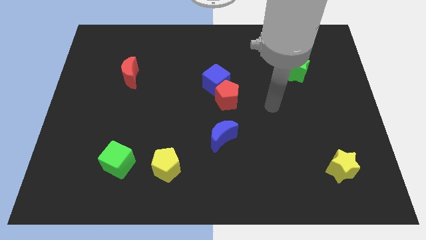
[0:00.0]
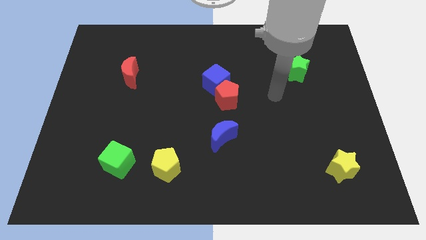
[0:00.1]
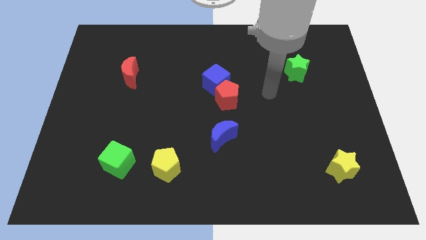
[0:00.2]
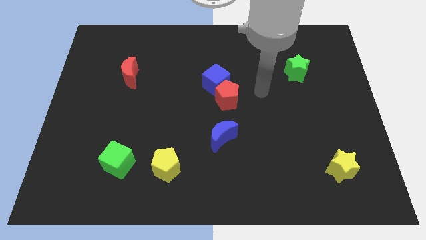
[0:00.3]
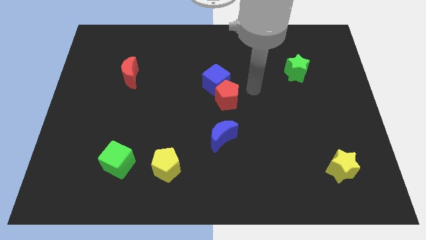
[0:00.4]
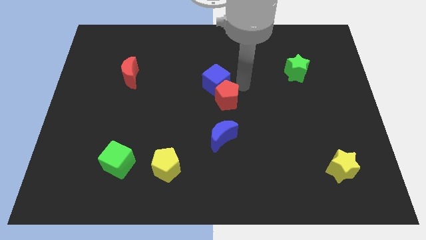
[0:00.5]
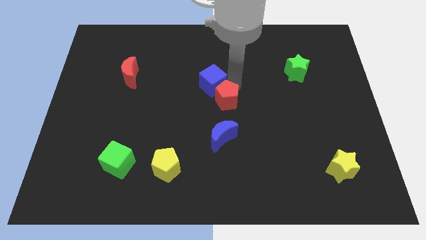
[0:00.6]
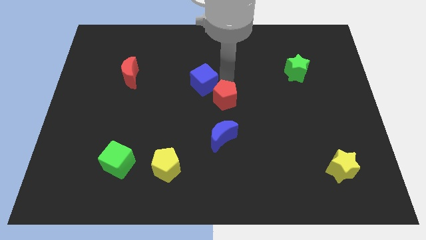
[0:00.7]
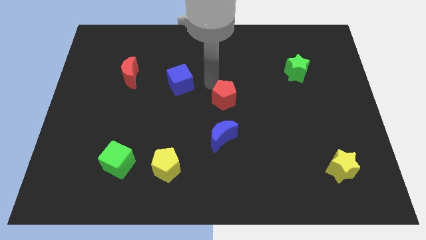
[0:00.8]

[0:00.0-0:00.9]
move the red pentagon away from the blue cube

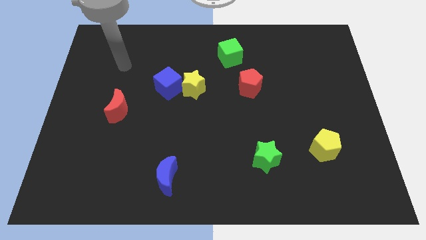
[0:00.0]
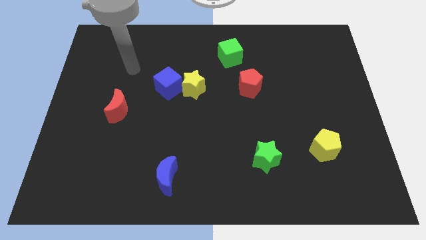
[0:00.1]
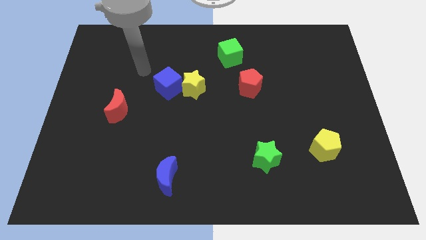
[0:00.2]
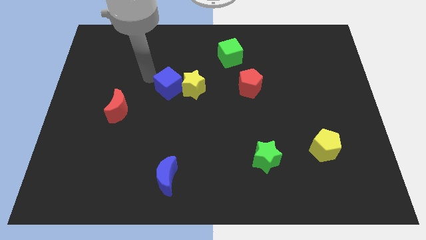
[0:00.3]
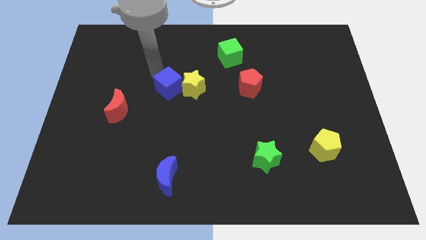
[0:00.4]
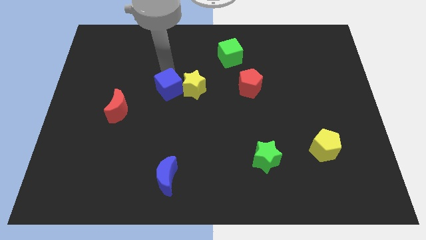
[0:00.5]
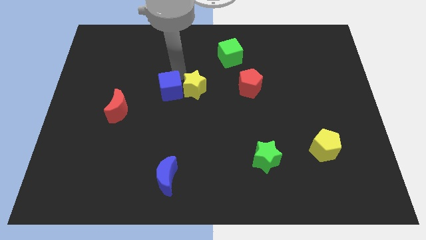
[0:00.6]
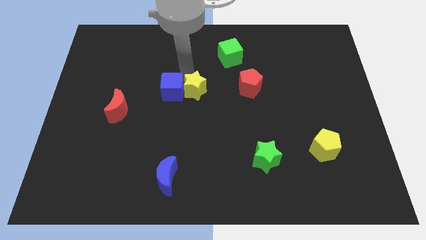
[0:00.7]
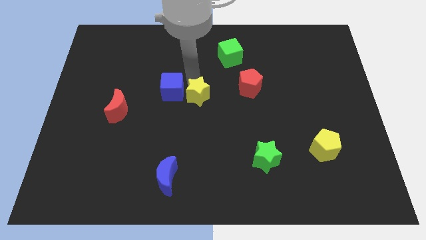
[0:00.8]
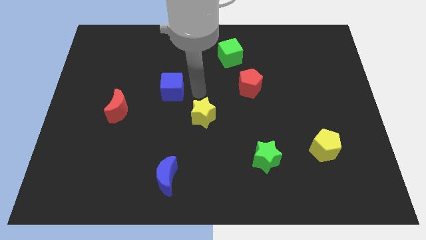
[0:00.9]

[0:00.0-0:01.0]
separate the blue cube from the yellow star

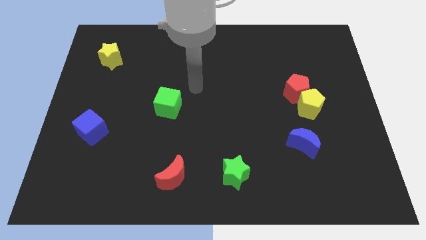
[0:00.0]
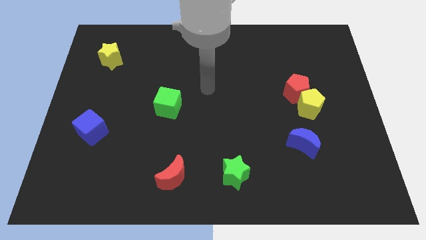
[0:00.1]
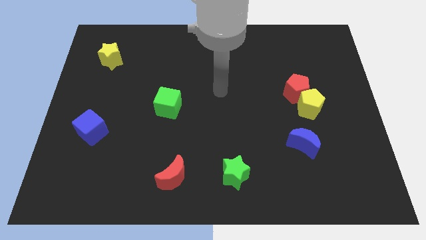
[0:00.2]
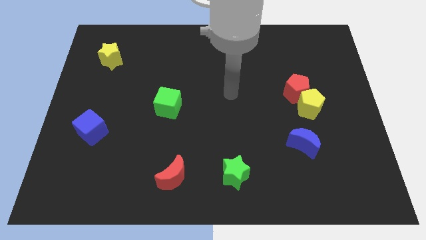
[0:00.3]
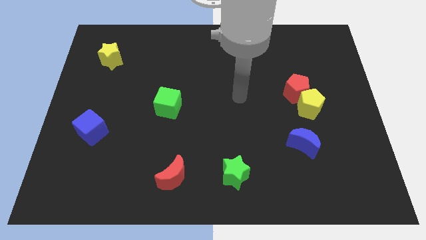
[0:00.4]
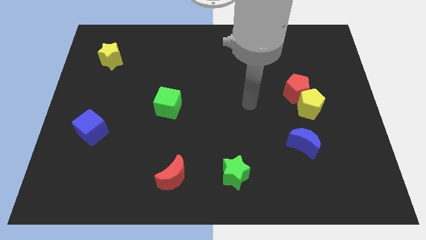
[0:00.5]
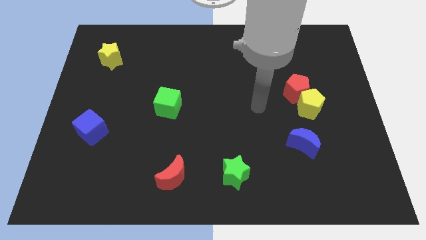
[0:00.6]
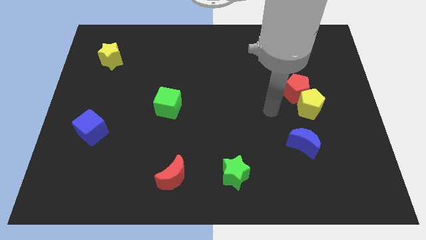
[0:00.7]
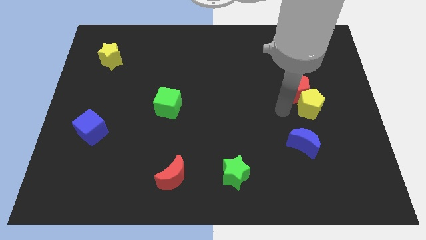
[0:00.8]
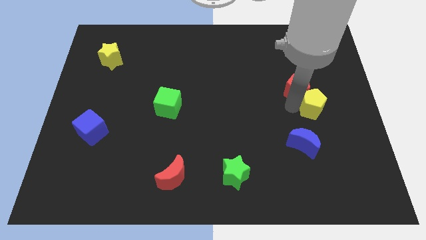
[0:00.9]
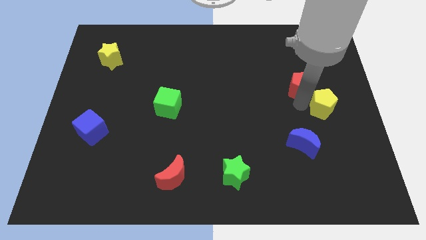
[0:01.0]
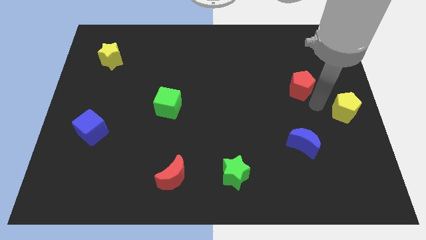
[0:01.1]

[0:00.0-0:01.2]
separate the red pentagon from the yellow pentagon

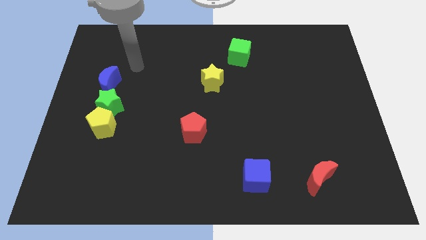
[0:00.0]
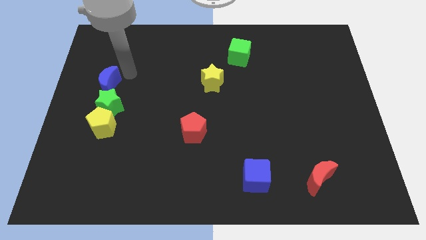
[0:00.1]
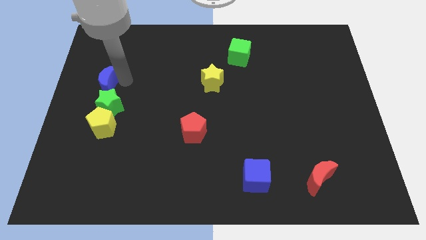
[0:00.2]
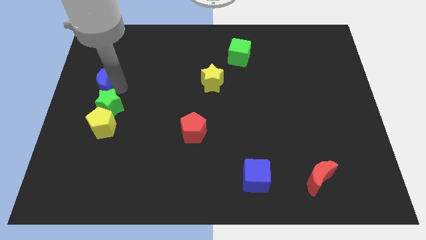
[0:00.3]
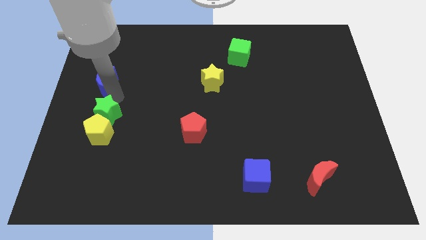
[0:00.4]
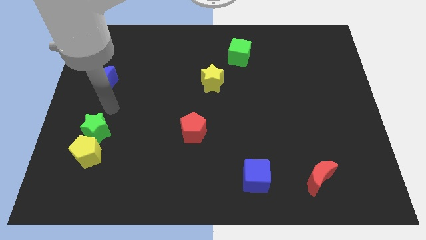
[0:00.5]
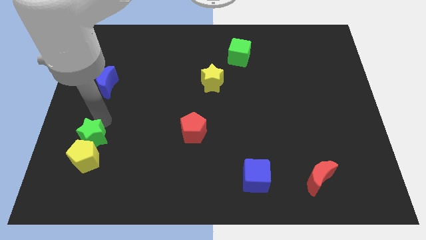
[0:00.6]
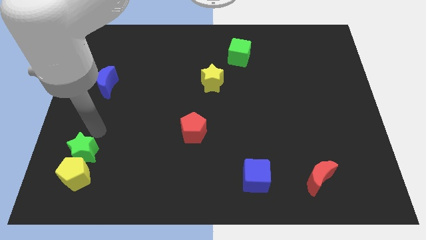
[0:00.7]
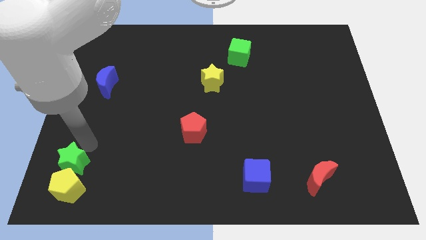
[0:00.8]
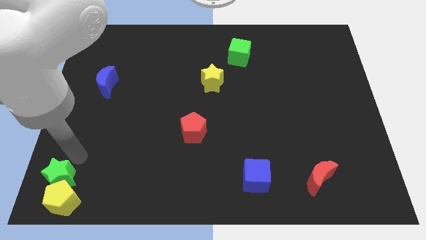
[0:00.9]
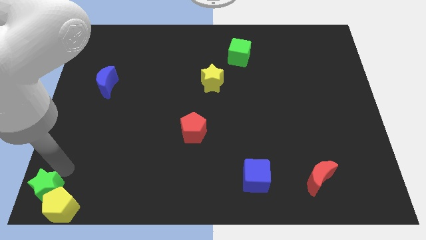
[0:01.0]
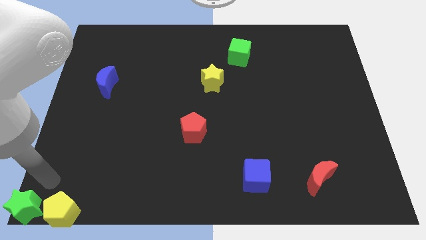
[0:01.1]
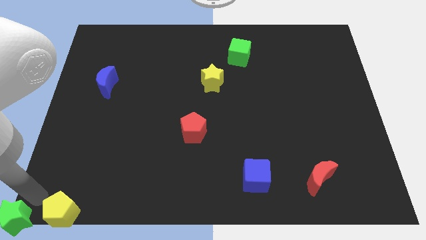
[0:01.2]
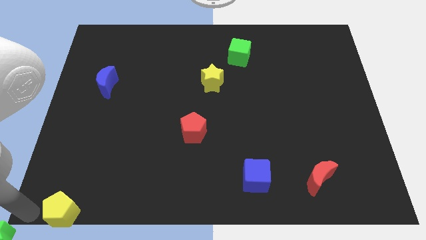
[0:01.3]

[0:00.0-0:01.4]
move the yellow pentagon away from the green star

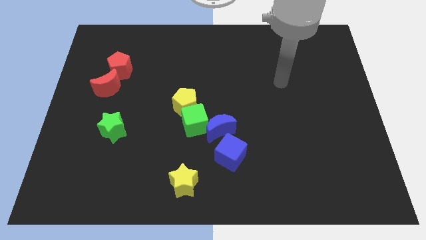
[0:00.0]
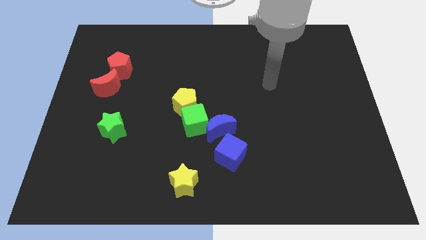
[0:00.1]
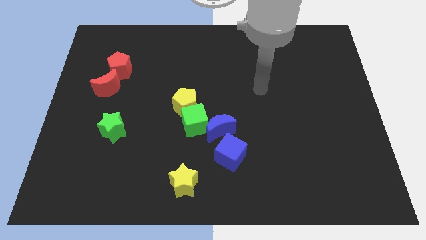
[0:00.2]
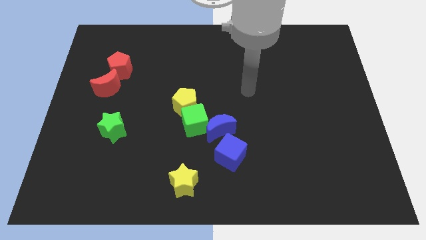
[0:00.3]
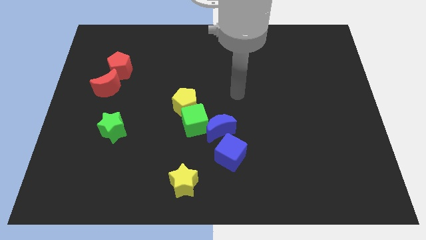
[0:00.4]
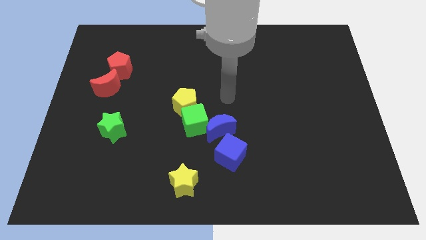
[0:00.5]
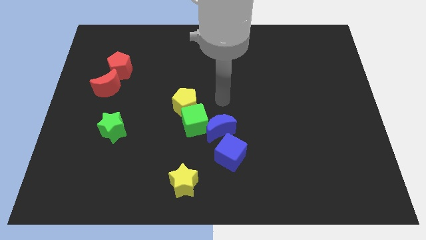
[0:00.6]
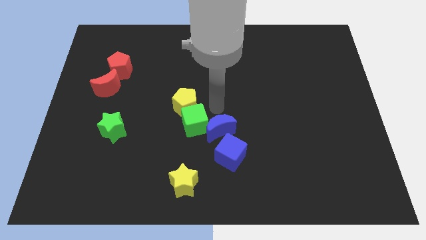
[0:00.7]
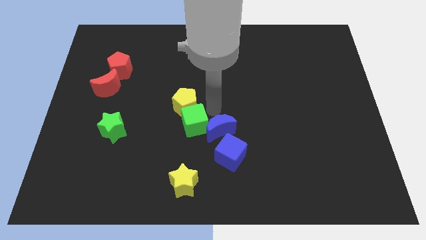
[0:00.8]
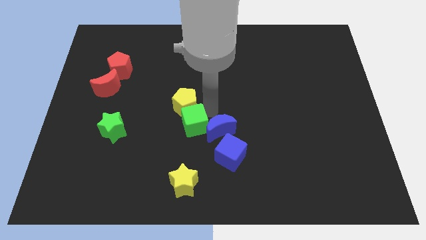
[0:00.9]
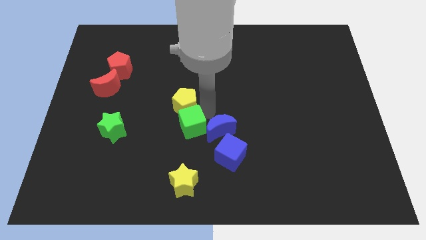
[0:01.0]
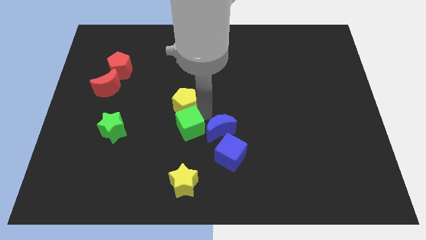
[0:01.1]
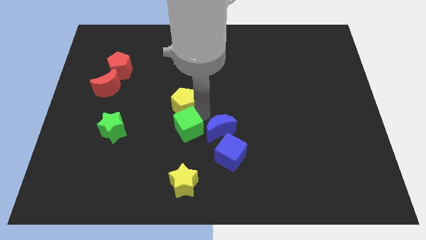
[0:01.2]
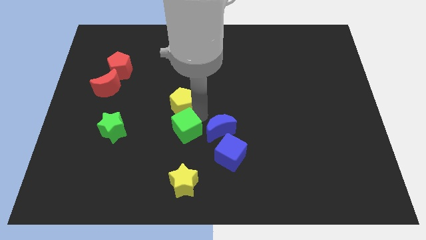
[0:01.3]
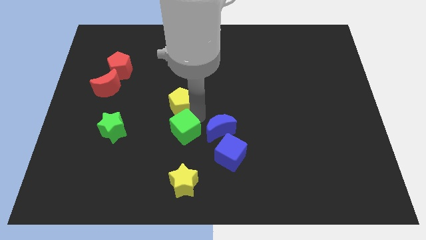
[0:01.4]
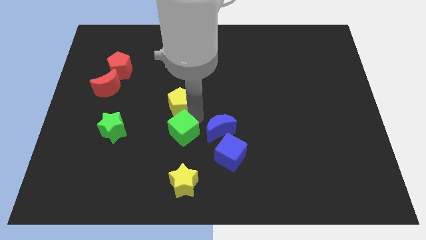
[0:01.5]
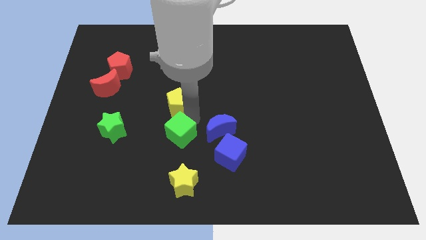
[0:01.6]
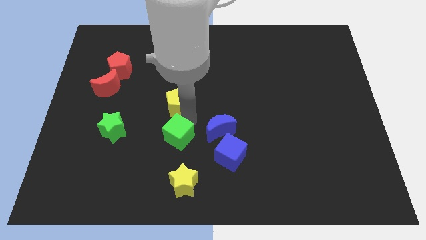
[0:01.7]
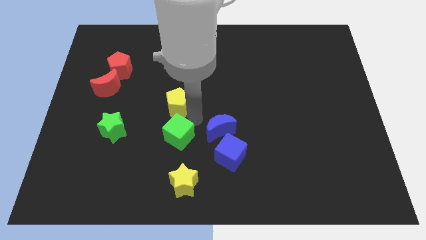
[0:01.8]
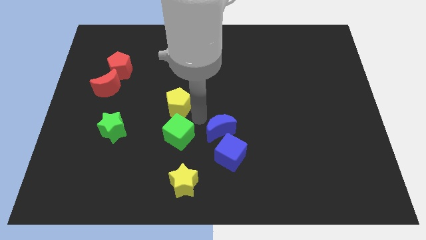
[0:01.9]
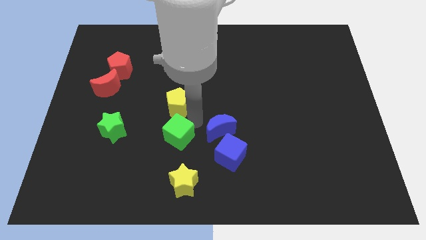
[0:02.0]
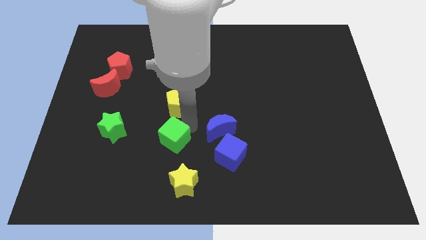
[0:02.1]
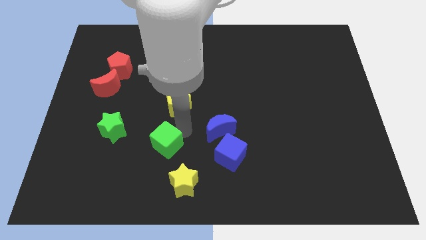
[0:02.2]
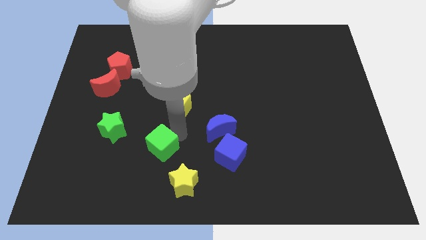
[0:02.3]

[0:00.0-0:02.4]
move the green cube away from the yellow pentagon and blue moon

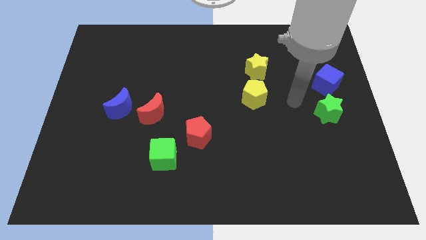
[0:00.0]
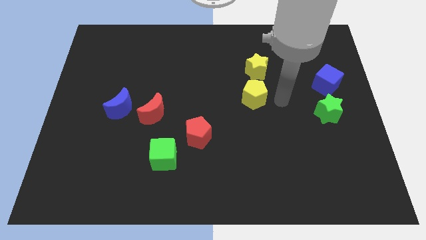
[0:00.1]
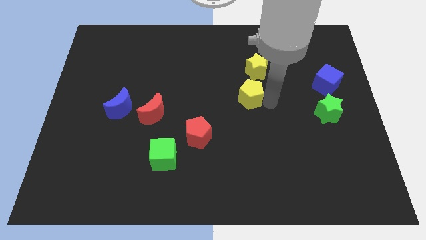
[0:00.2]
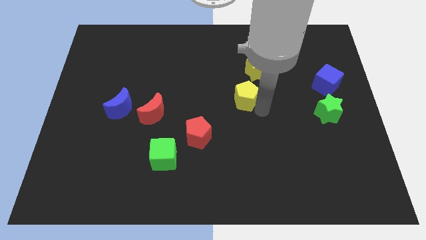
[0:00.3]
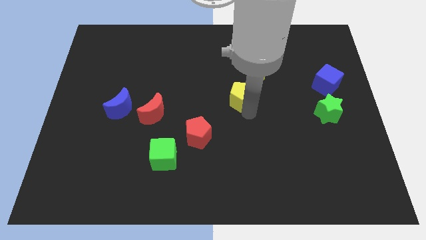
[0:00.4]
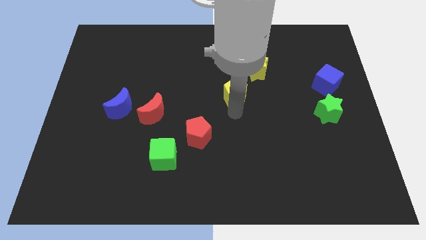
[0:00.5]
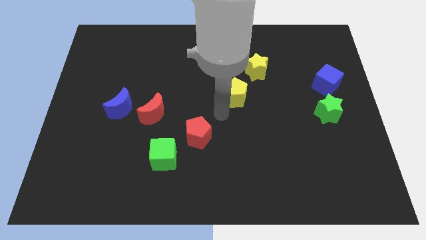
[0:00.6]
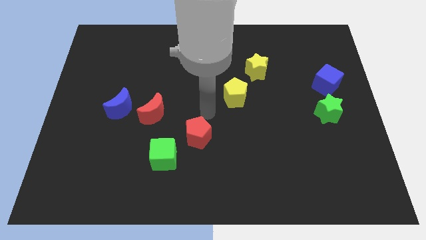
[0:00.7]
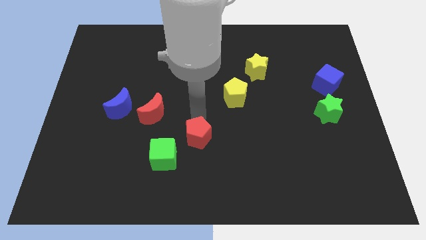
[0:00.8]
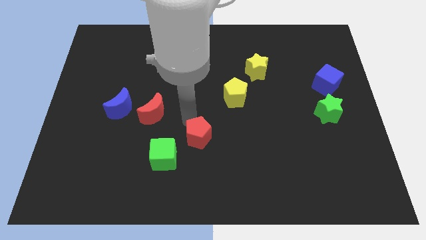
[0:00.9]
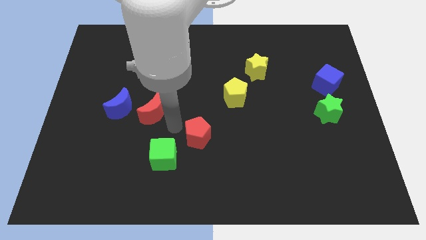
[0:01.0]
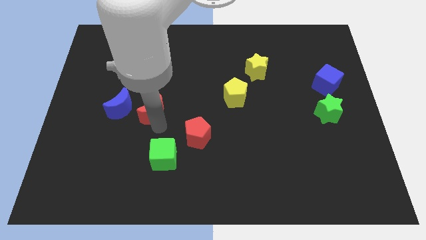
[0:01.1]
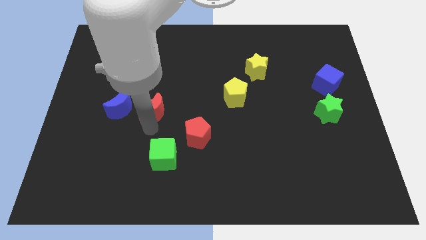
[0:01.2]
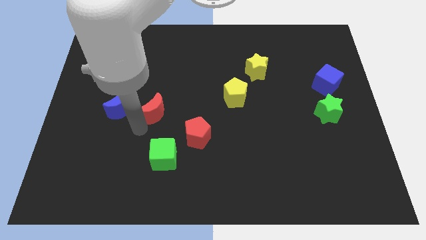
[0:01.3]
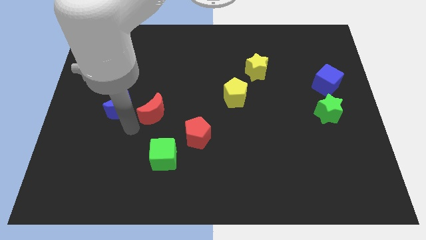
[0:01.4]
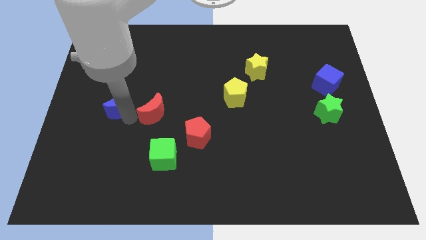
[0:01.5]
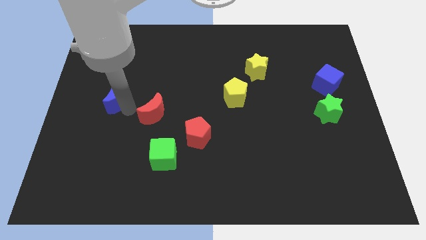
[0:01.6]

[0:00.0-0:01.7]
move the red moon away from the blue moon

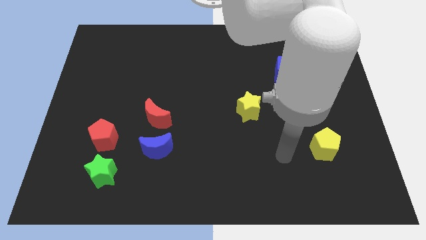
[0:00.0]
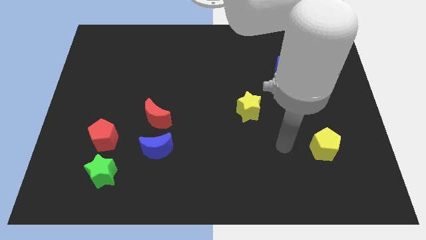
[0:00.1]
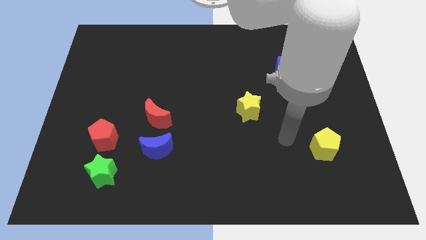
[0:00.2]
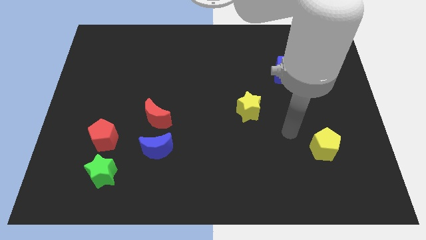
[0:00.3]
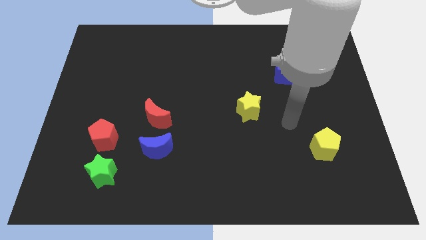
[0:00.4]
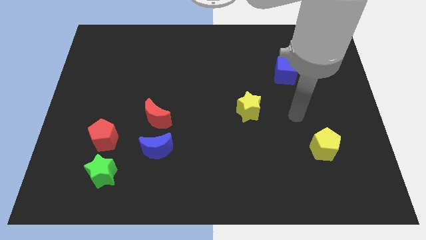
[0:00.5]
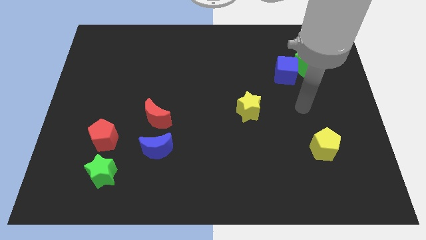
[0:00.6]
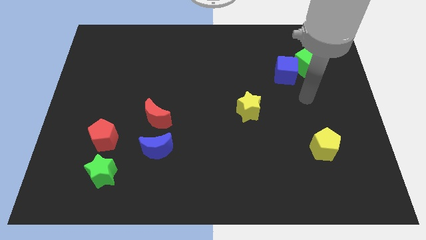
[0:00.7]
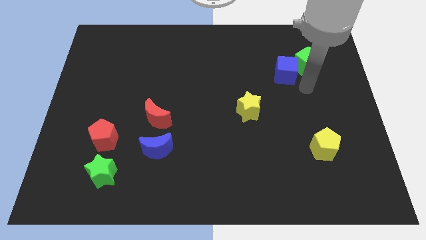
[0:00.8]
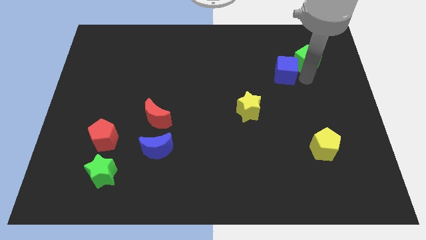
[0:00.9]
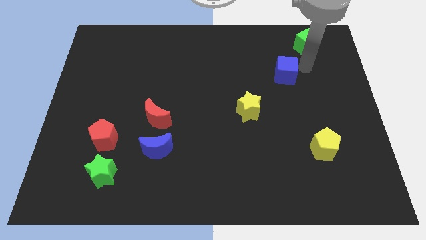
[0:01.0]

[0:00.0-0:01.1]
pull the blue cube apart from the green cube
